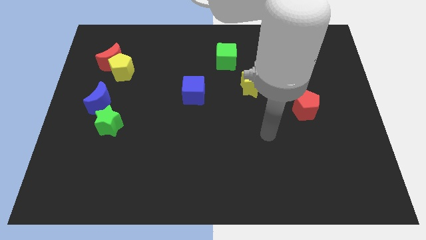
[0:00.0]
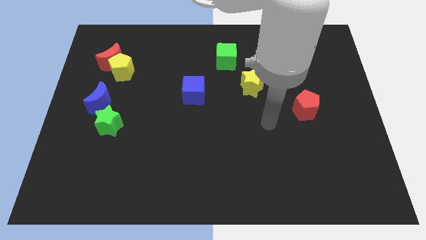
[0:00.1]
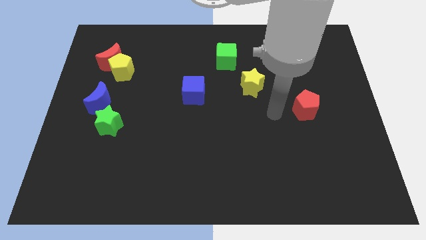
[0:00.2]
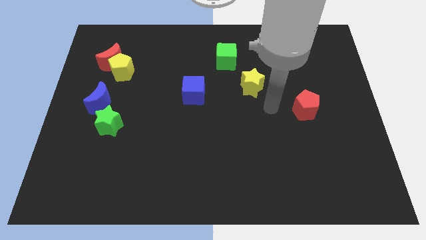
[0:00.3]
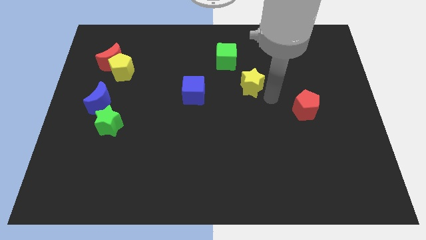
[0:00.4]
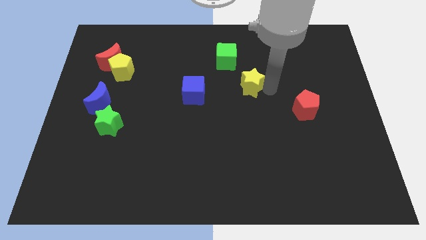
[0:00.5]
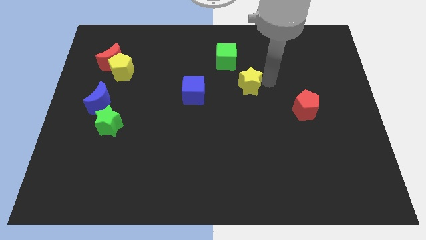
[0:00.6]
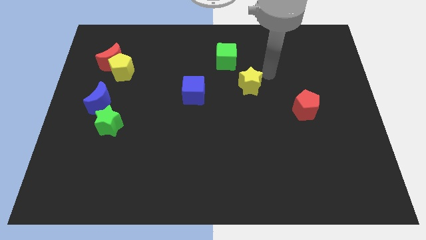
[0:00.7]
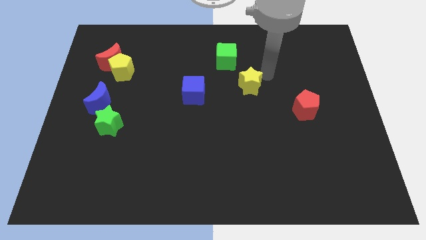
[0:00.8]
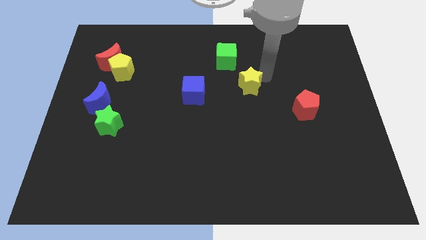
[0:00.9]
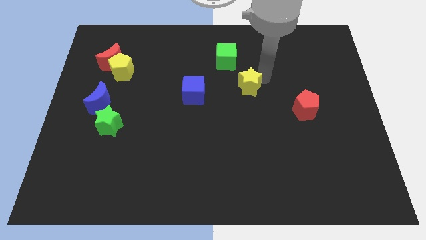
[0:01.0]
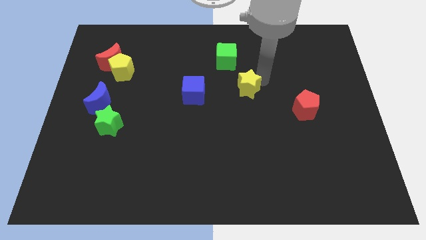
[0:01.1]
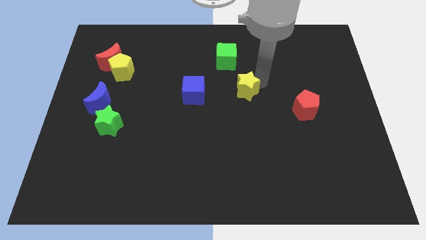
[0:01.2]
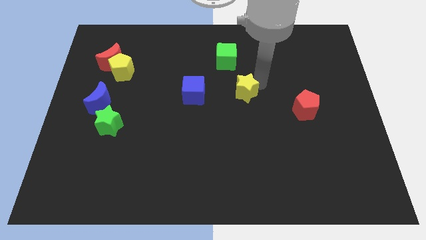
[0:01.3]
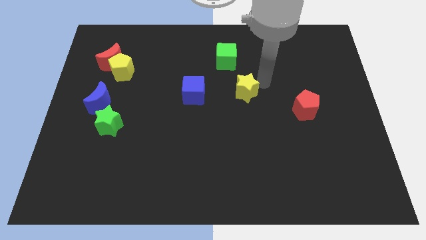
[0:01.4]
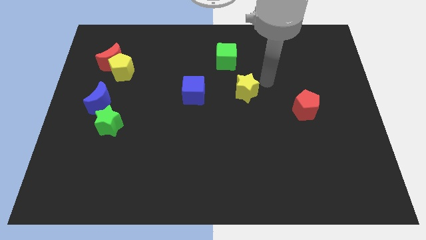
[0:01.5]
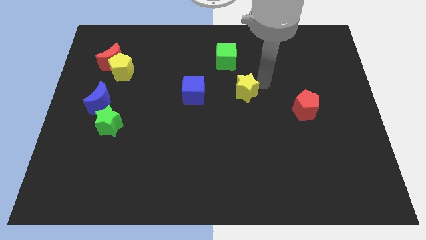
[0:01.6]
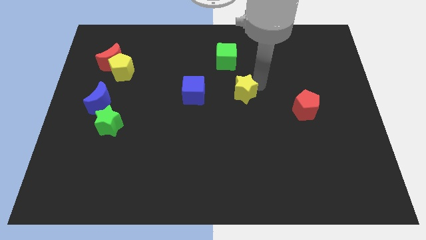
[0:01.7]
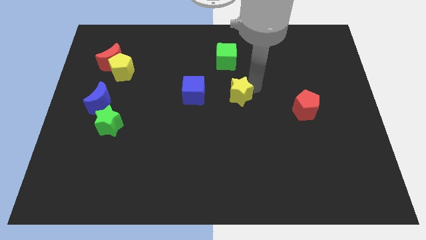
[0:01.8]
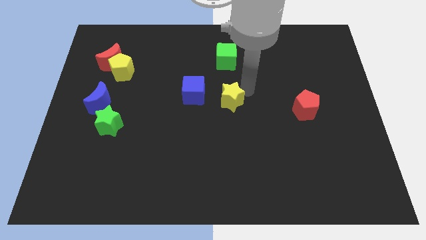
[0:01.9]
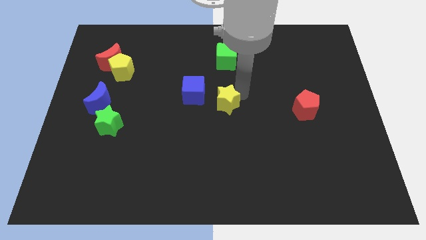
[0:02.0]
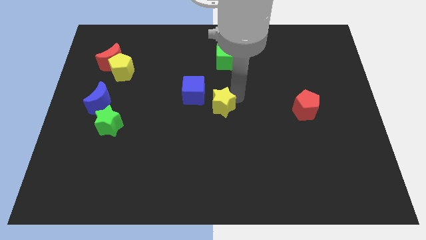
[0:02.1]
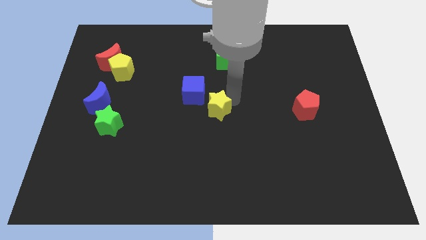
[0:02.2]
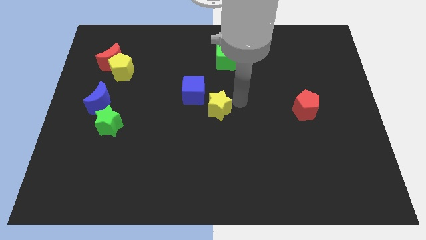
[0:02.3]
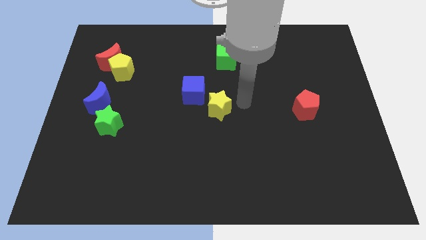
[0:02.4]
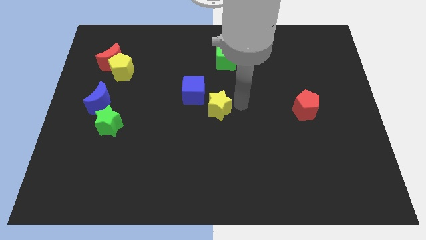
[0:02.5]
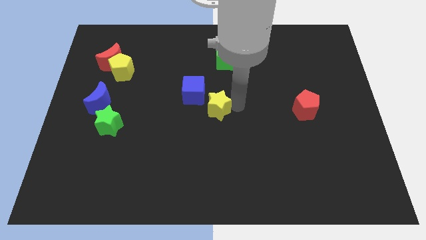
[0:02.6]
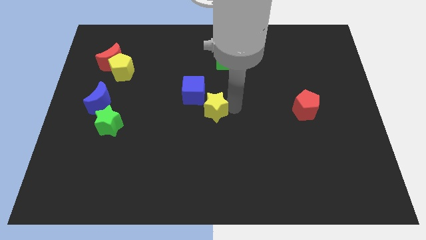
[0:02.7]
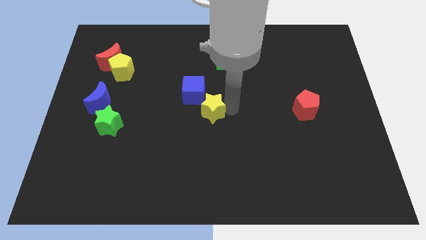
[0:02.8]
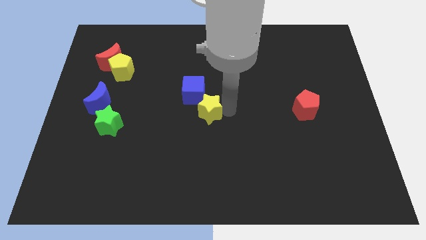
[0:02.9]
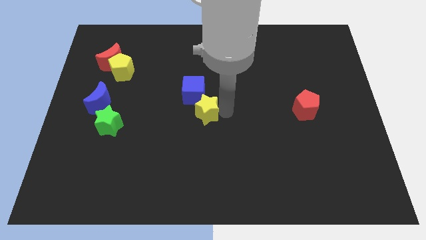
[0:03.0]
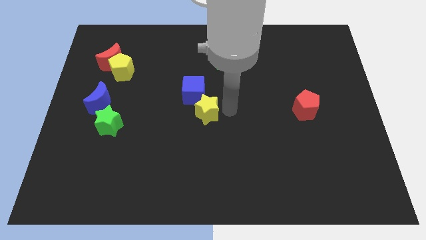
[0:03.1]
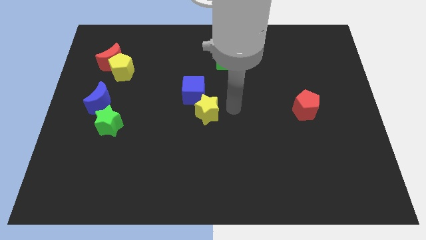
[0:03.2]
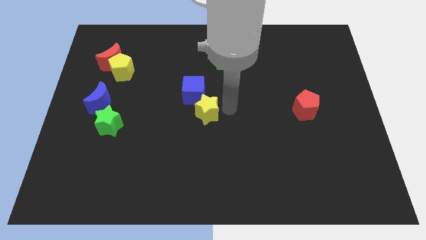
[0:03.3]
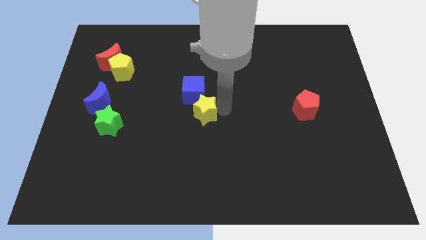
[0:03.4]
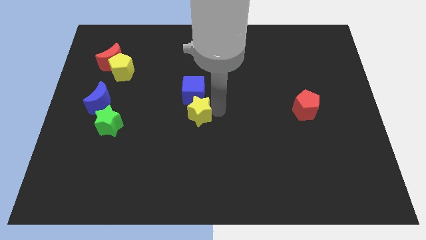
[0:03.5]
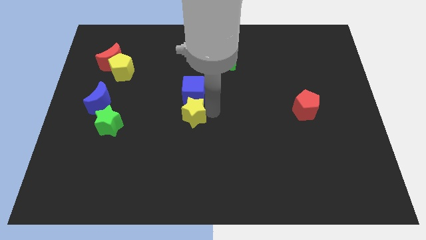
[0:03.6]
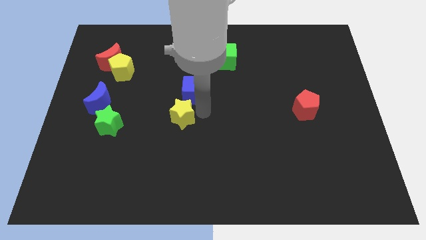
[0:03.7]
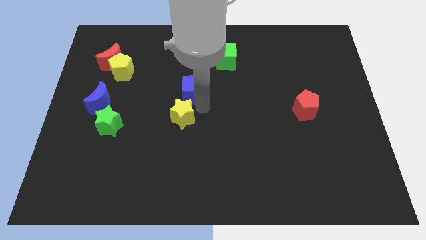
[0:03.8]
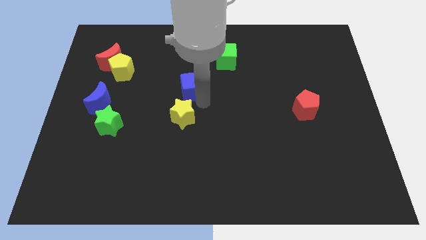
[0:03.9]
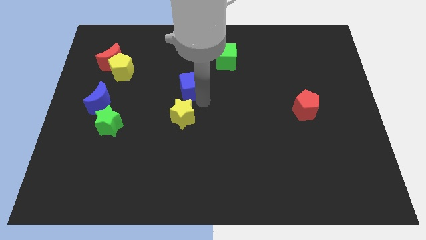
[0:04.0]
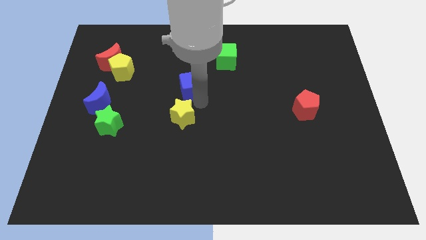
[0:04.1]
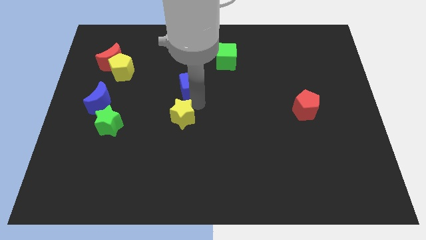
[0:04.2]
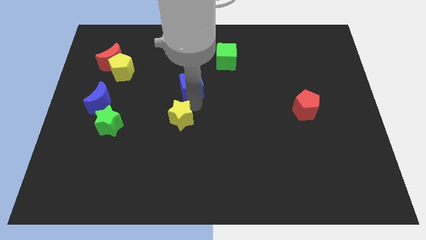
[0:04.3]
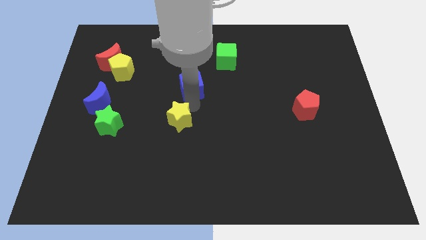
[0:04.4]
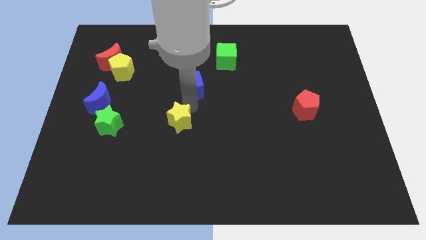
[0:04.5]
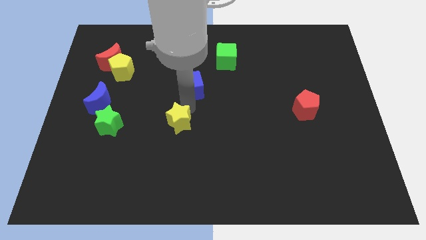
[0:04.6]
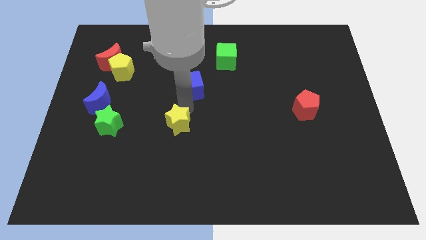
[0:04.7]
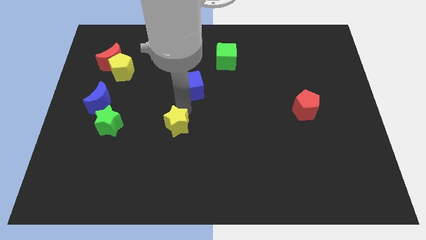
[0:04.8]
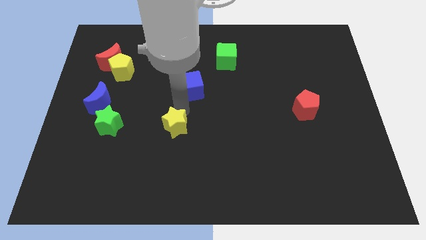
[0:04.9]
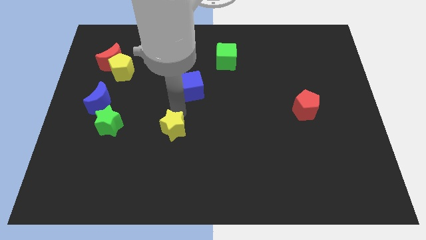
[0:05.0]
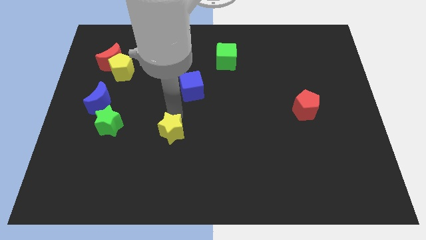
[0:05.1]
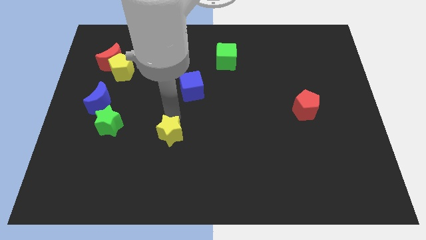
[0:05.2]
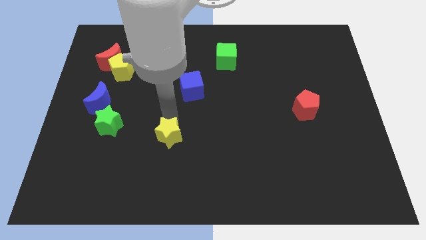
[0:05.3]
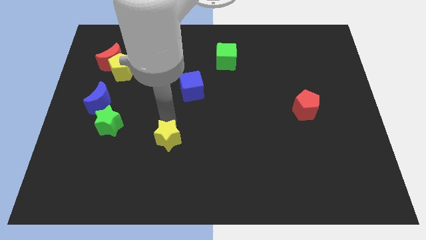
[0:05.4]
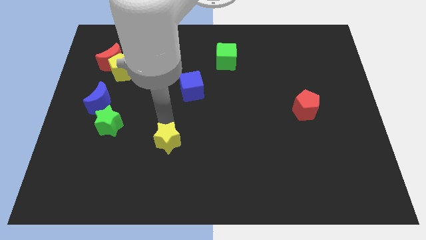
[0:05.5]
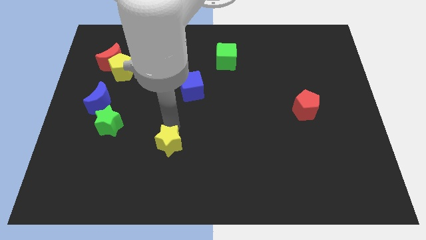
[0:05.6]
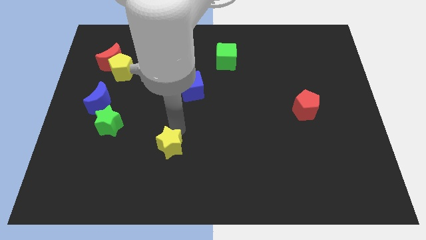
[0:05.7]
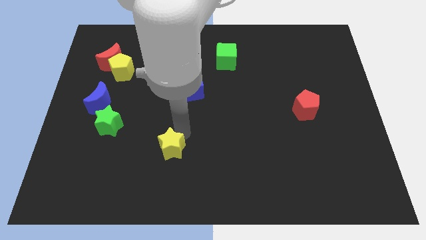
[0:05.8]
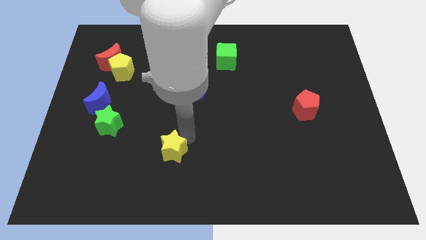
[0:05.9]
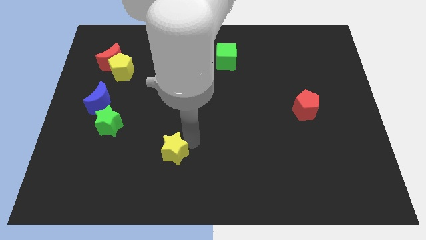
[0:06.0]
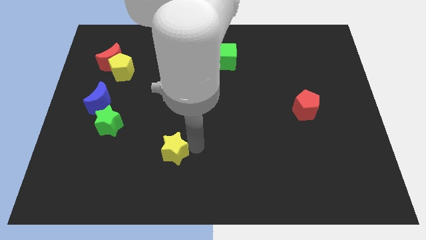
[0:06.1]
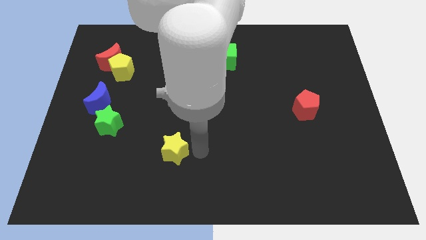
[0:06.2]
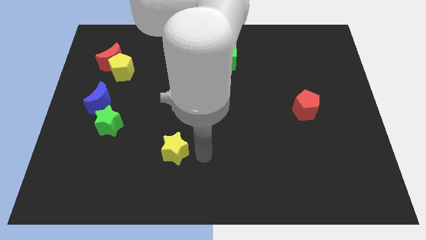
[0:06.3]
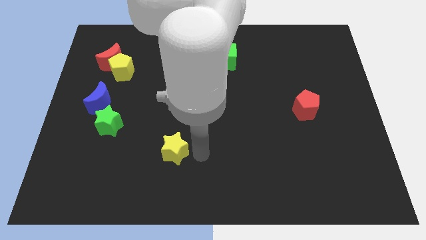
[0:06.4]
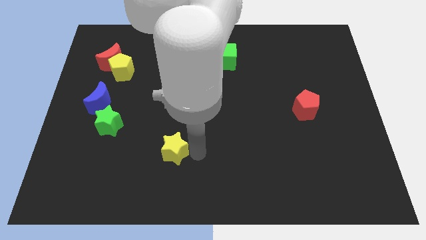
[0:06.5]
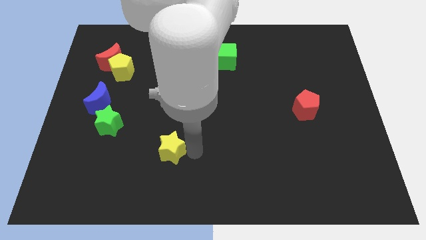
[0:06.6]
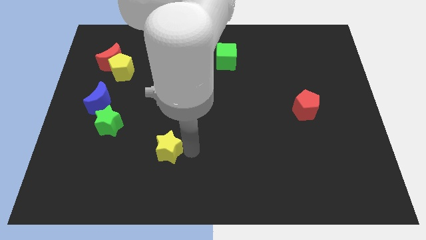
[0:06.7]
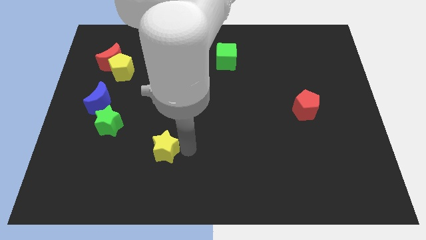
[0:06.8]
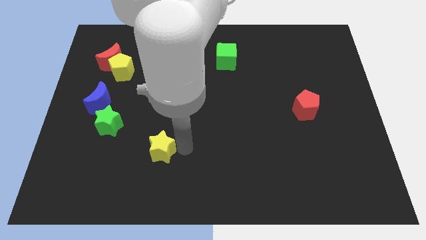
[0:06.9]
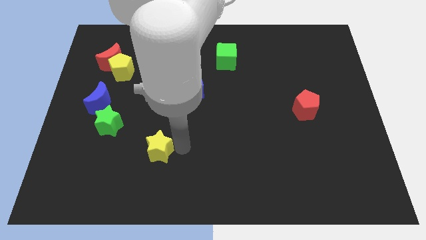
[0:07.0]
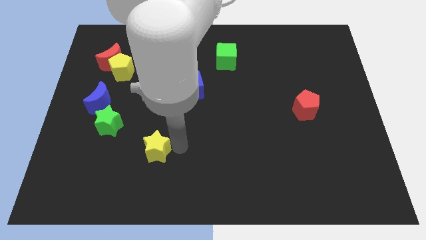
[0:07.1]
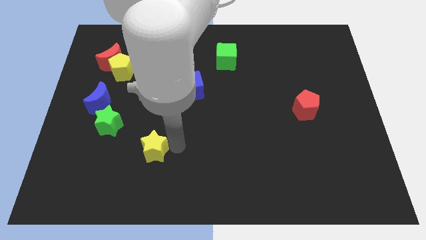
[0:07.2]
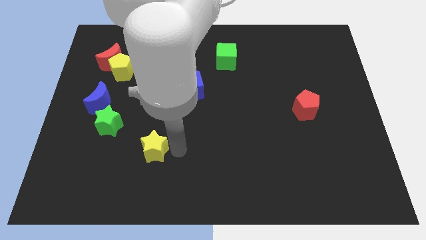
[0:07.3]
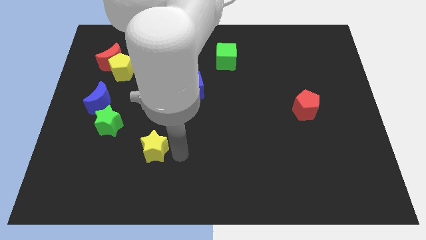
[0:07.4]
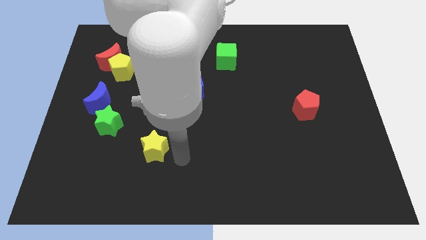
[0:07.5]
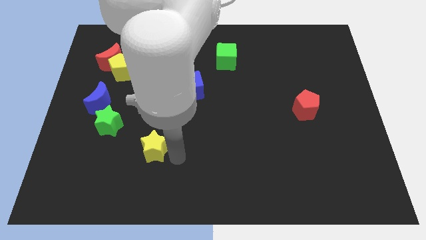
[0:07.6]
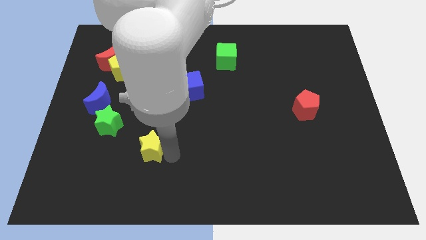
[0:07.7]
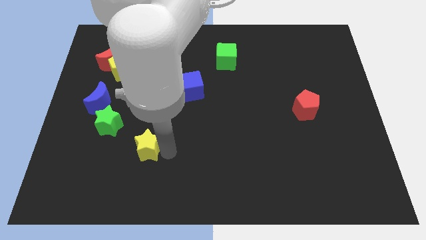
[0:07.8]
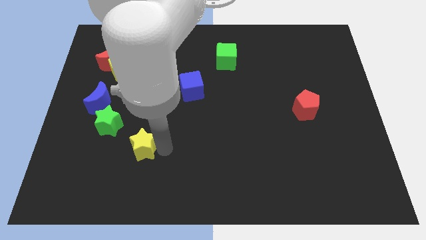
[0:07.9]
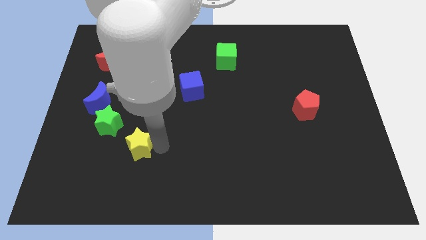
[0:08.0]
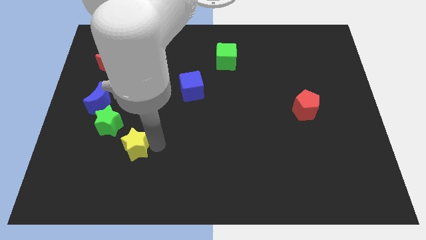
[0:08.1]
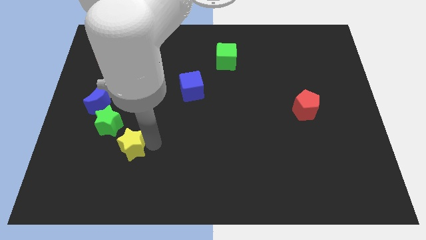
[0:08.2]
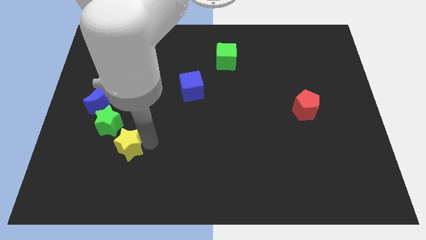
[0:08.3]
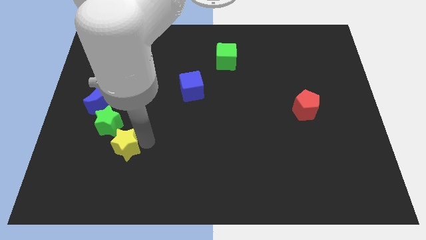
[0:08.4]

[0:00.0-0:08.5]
slide the yellow star to the bottom of the green star
